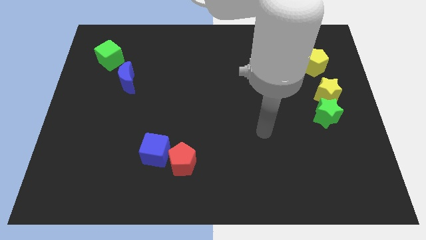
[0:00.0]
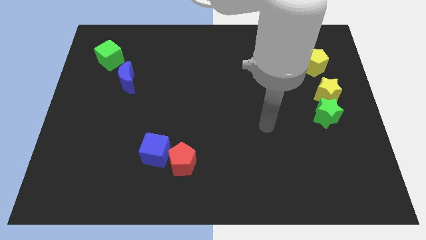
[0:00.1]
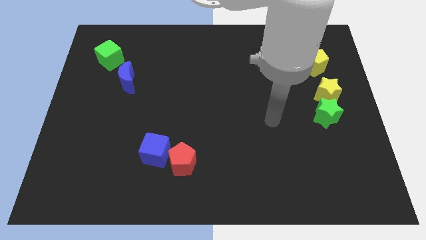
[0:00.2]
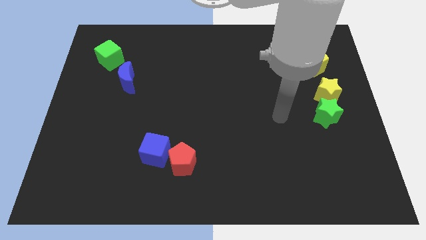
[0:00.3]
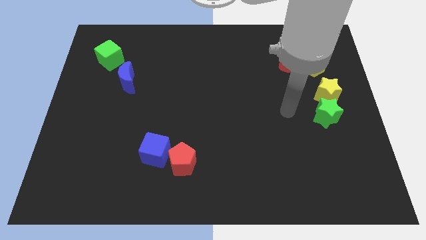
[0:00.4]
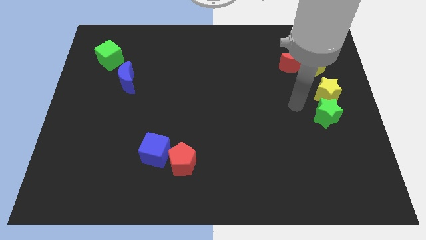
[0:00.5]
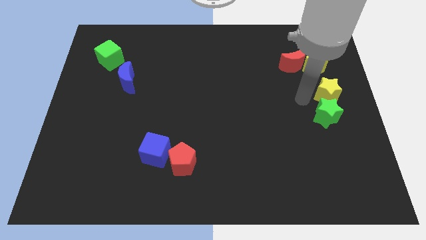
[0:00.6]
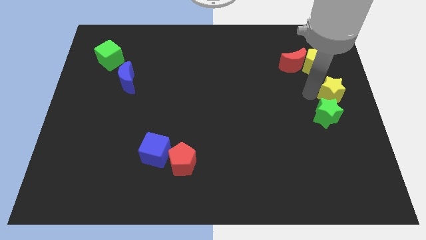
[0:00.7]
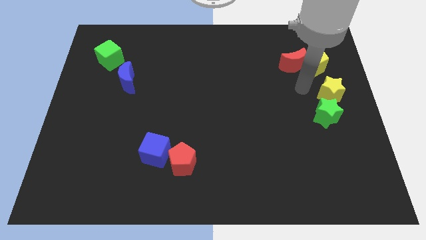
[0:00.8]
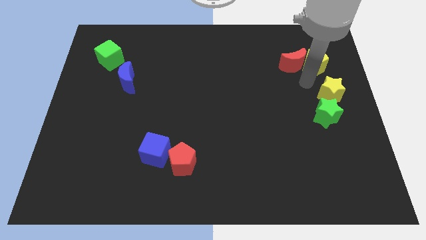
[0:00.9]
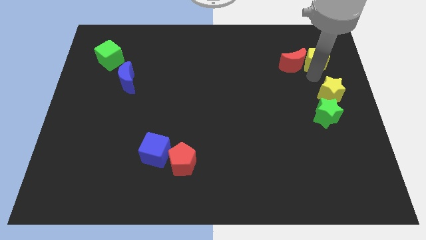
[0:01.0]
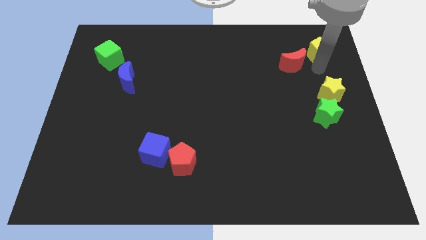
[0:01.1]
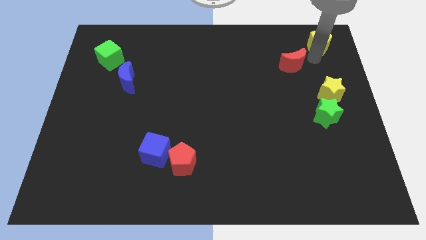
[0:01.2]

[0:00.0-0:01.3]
separate the red moon from the yellow pentagon

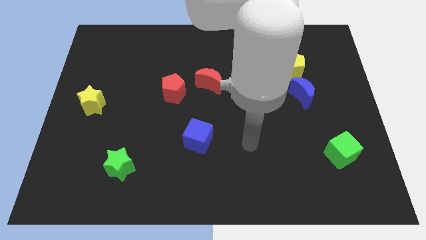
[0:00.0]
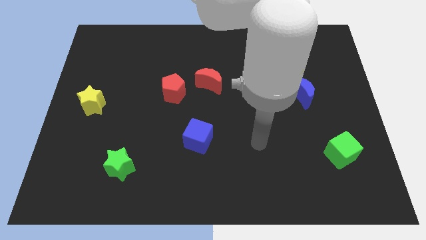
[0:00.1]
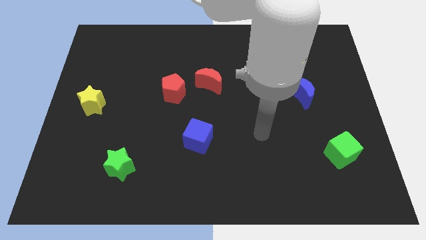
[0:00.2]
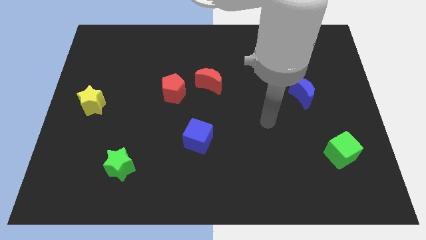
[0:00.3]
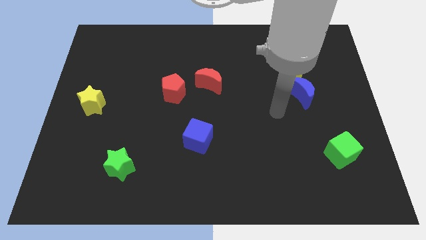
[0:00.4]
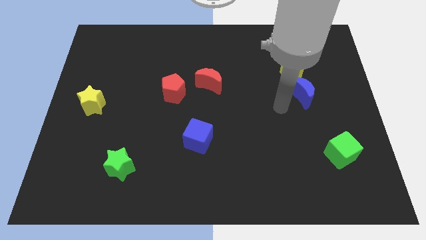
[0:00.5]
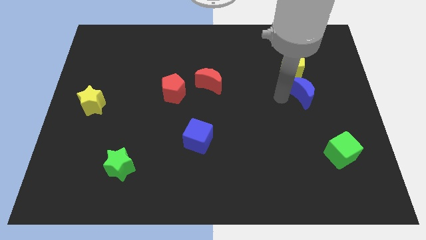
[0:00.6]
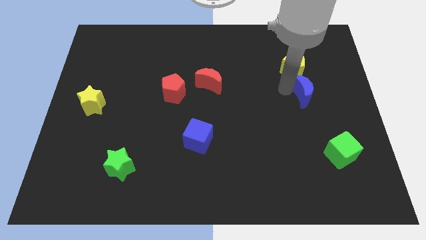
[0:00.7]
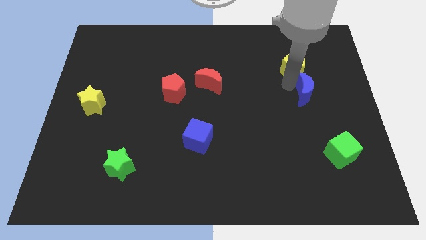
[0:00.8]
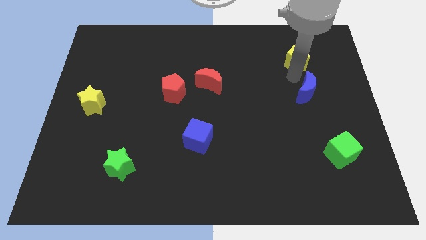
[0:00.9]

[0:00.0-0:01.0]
move the blue moon away from the yellow pentagon

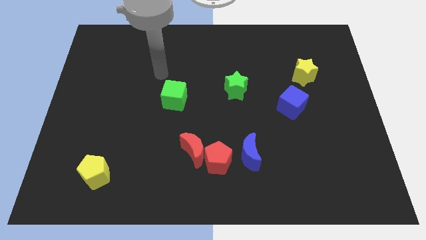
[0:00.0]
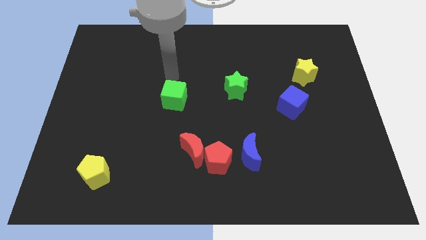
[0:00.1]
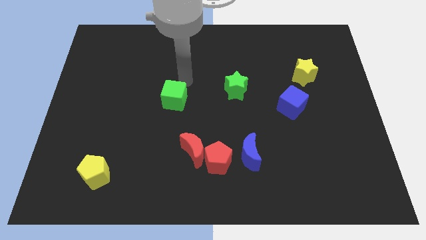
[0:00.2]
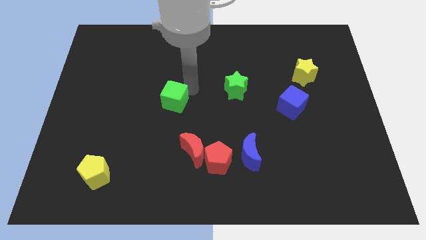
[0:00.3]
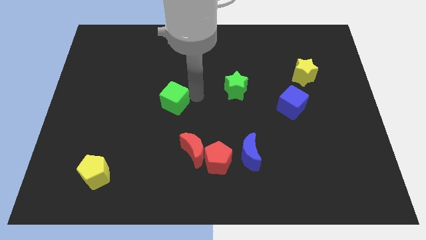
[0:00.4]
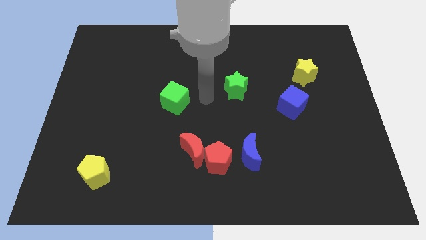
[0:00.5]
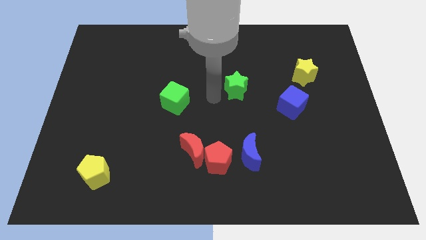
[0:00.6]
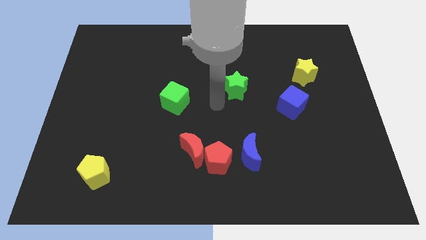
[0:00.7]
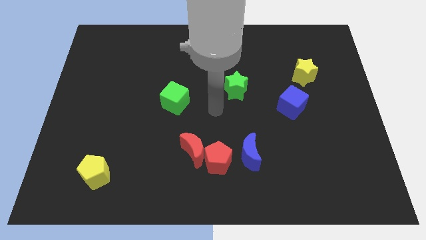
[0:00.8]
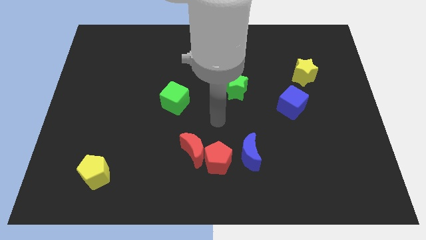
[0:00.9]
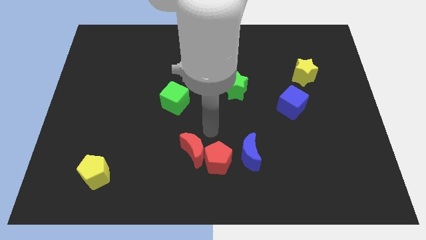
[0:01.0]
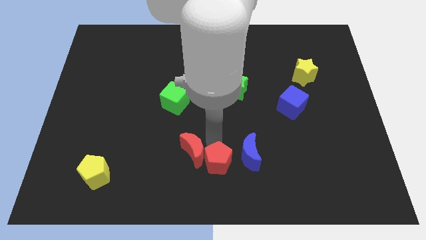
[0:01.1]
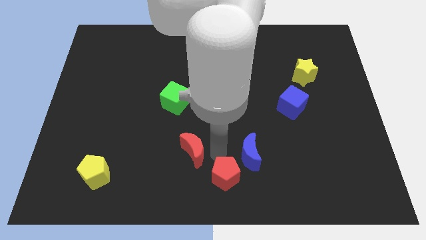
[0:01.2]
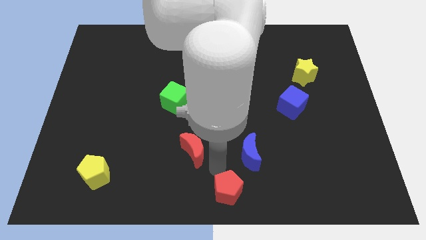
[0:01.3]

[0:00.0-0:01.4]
pull the red moon apart from the red pentagon

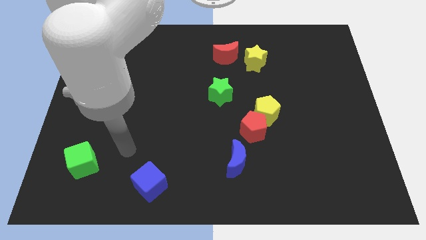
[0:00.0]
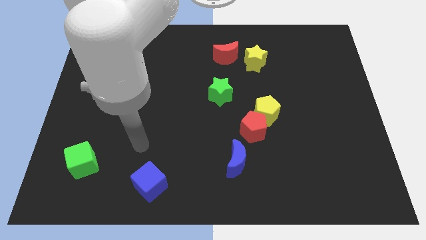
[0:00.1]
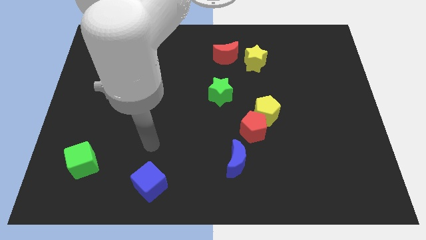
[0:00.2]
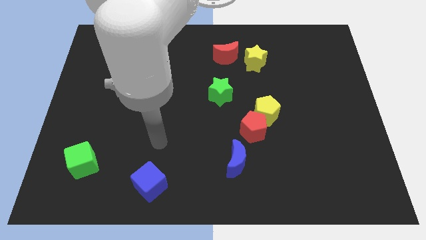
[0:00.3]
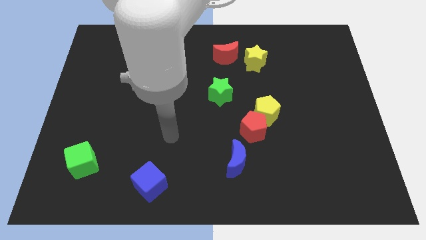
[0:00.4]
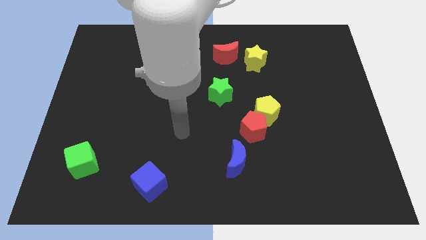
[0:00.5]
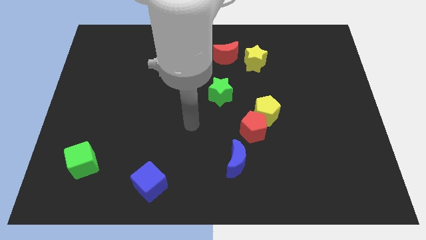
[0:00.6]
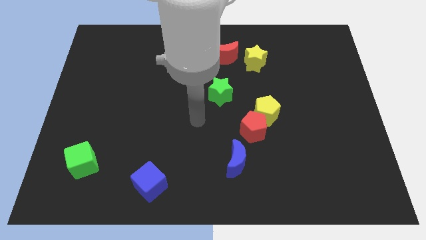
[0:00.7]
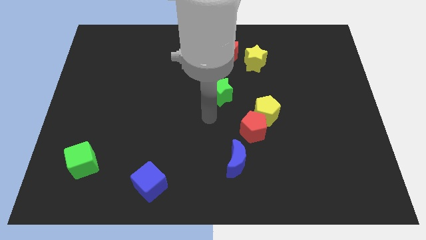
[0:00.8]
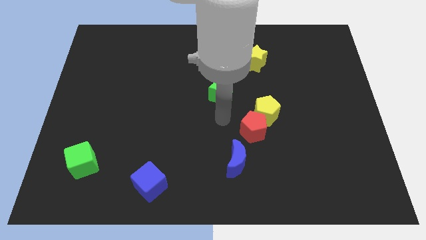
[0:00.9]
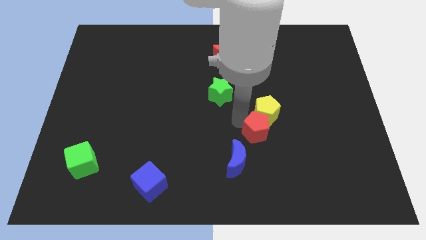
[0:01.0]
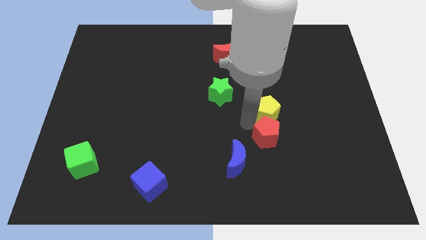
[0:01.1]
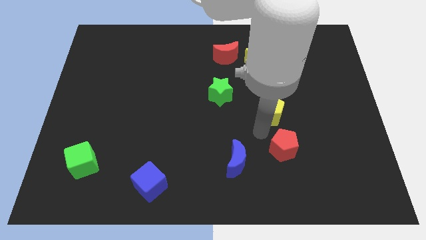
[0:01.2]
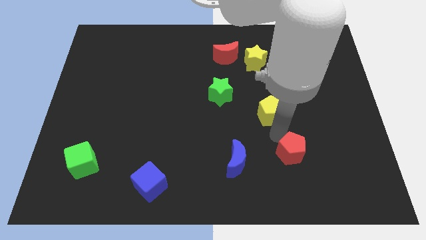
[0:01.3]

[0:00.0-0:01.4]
separate the yellow pentagon from the red pentagon

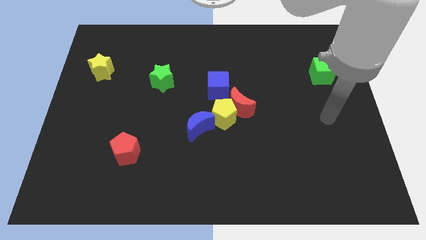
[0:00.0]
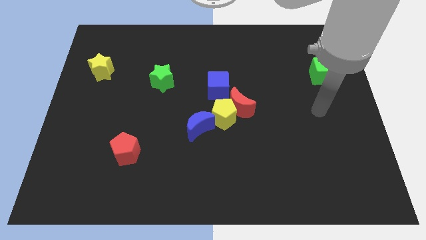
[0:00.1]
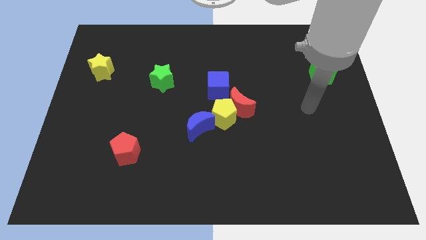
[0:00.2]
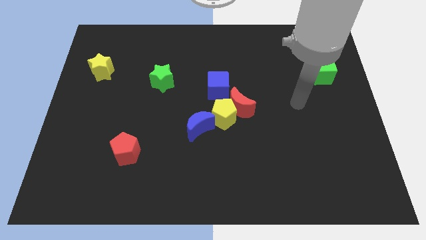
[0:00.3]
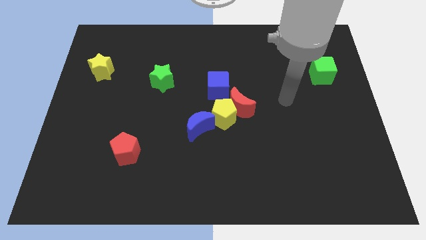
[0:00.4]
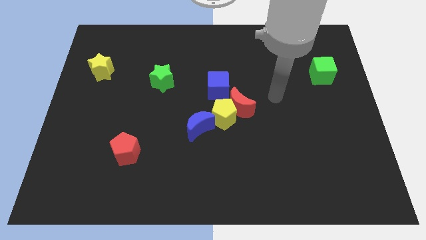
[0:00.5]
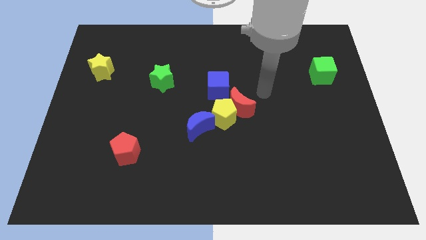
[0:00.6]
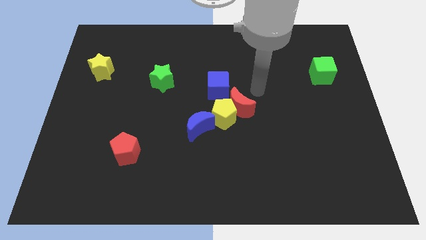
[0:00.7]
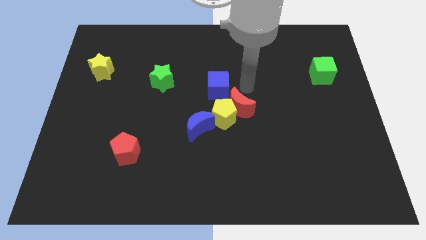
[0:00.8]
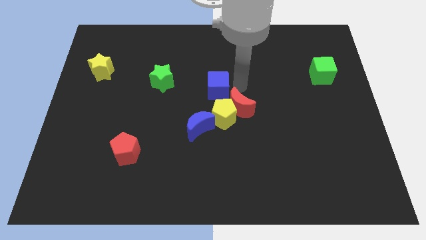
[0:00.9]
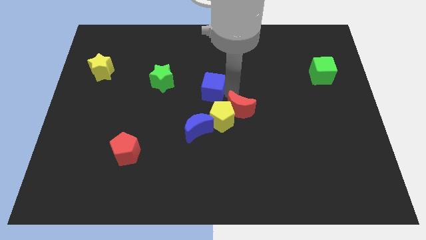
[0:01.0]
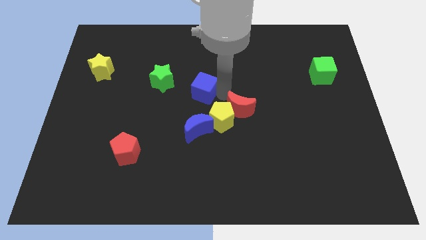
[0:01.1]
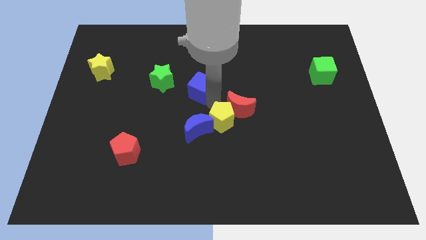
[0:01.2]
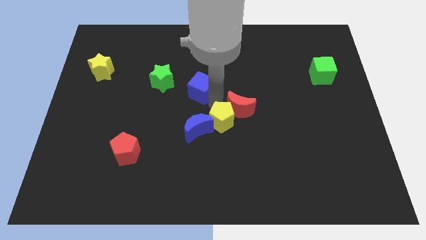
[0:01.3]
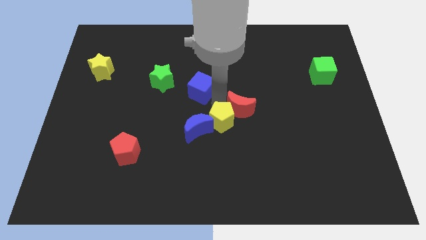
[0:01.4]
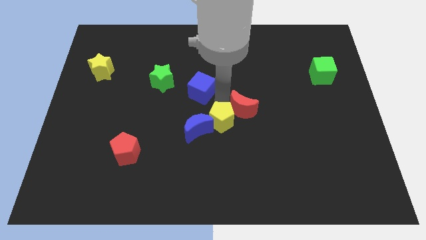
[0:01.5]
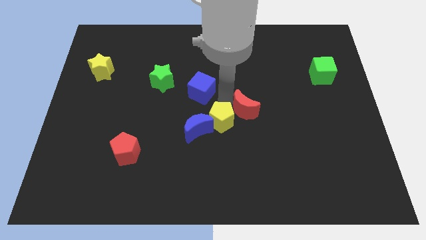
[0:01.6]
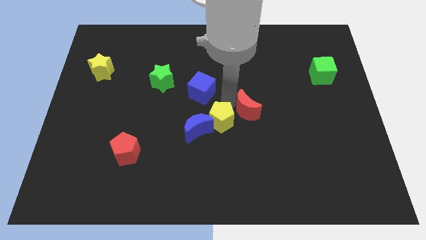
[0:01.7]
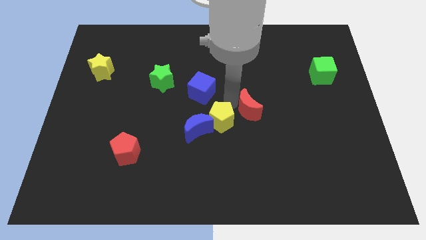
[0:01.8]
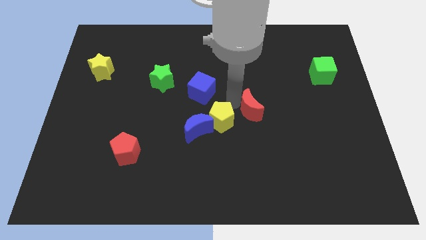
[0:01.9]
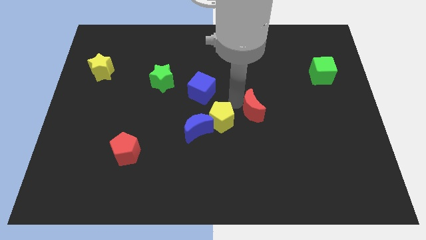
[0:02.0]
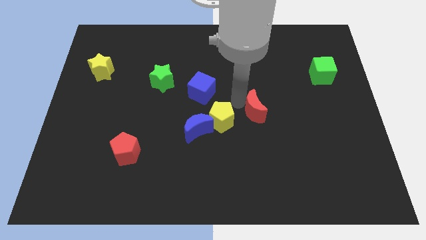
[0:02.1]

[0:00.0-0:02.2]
separate the red moon from the yellow pentagon and blue cube

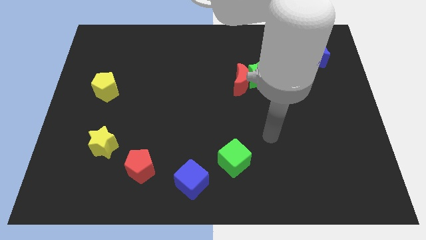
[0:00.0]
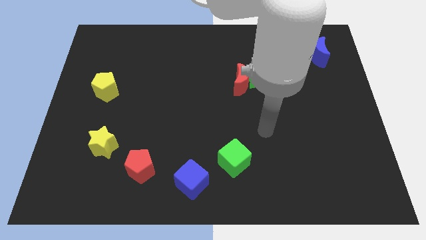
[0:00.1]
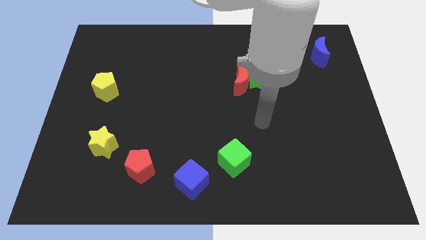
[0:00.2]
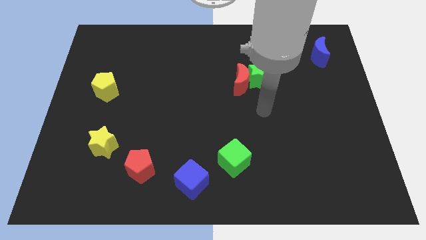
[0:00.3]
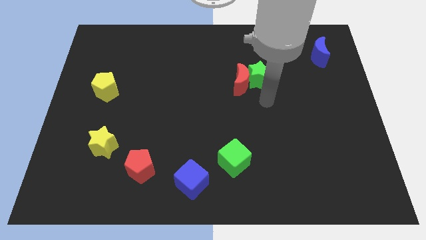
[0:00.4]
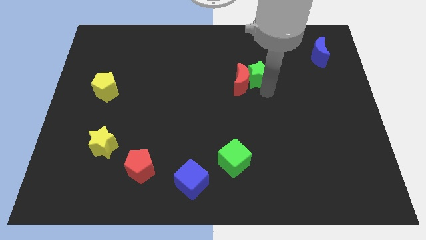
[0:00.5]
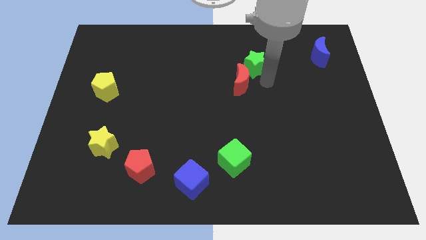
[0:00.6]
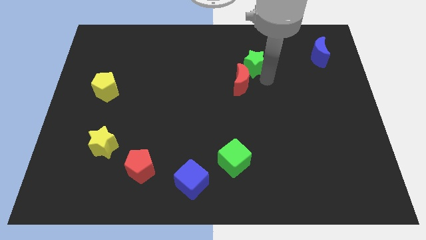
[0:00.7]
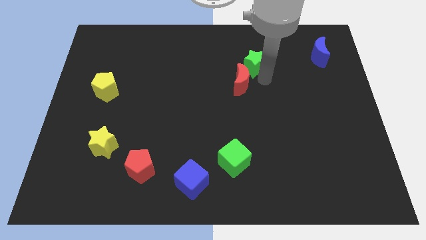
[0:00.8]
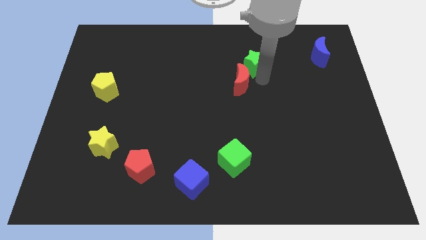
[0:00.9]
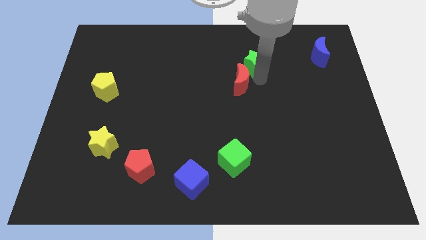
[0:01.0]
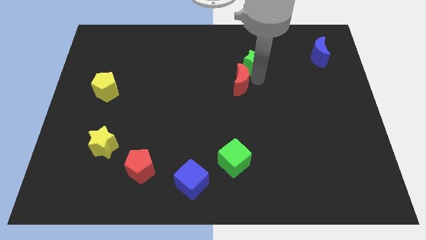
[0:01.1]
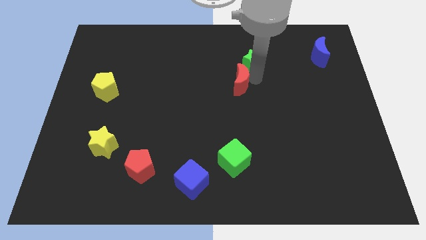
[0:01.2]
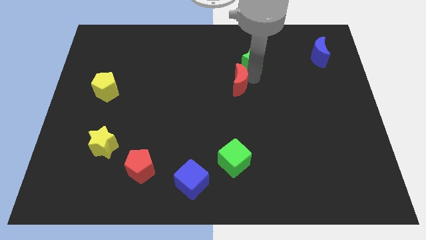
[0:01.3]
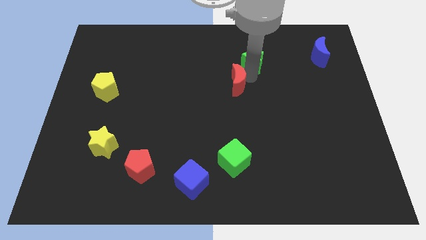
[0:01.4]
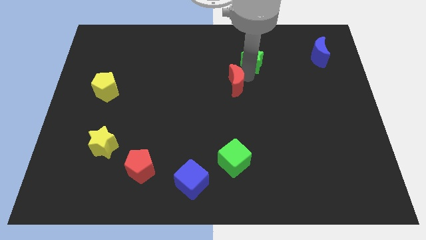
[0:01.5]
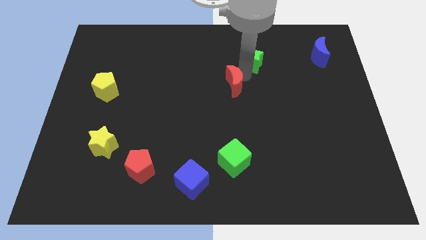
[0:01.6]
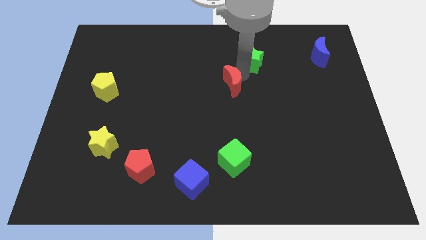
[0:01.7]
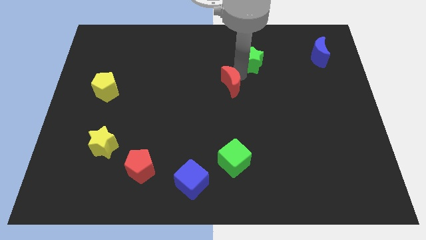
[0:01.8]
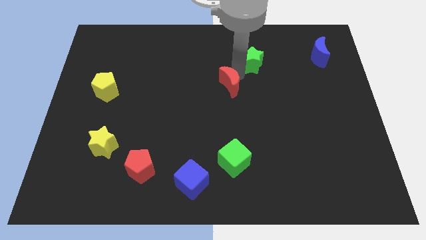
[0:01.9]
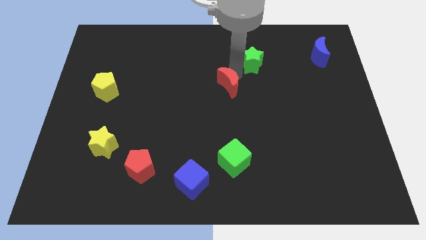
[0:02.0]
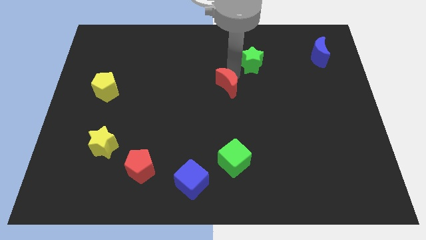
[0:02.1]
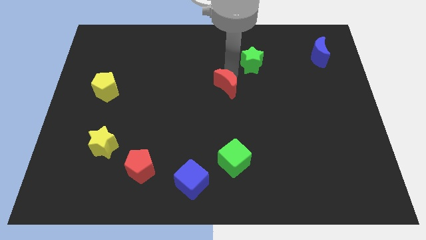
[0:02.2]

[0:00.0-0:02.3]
pull the red moon apart from the green star
